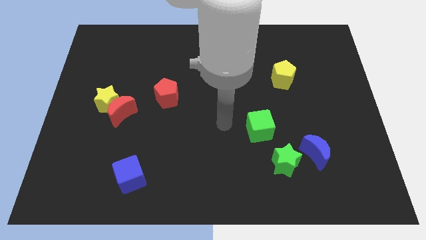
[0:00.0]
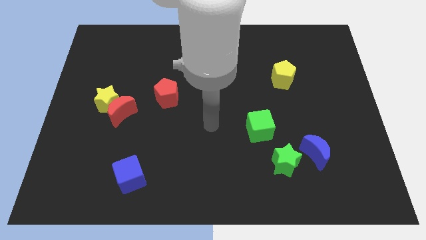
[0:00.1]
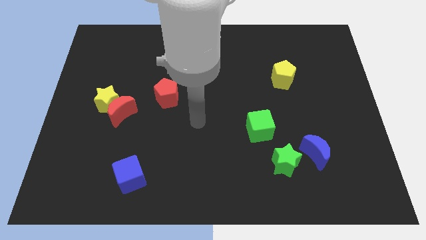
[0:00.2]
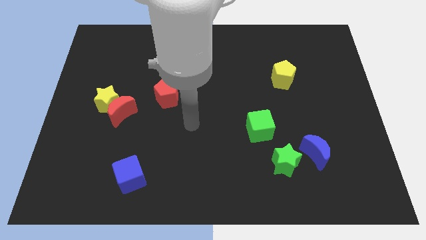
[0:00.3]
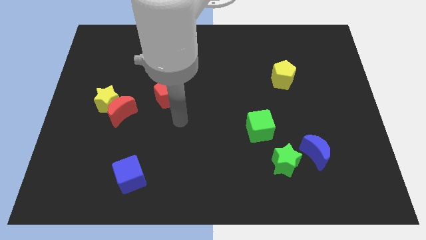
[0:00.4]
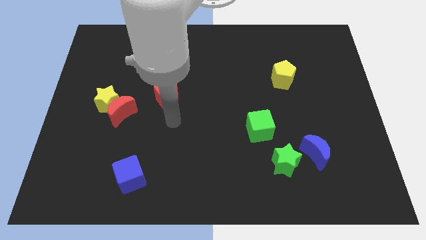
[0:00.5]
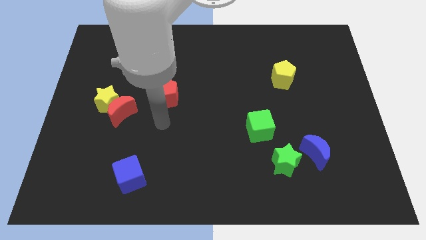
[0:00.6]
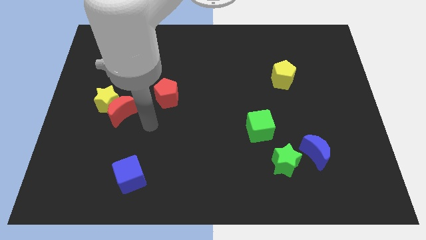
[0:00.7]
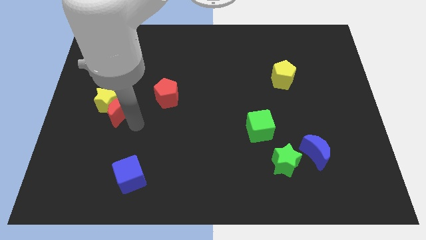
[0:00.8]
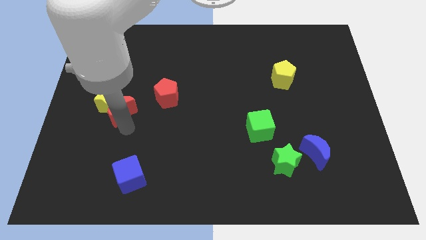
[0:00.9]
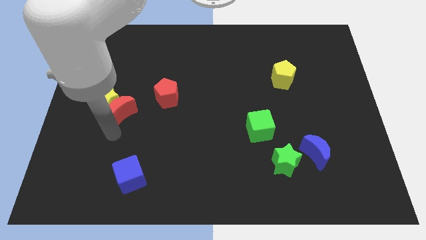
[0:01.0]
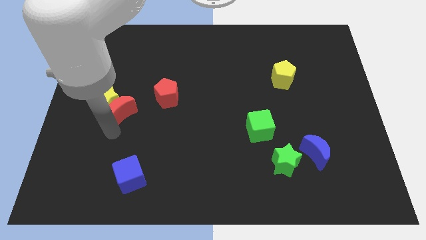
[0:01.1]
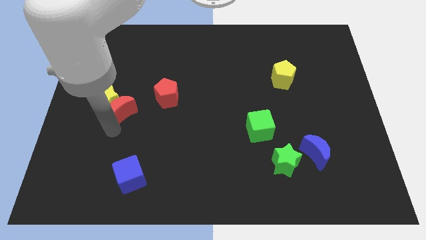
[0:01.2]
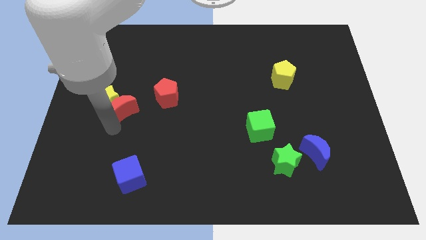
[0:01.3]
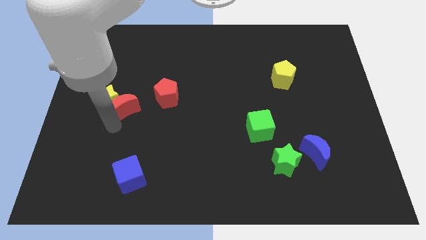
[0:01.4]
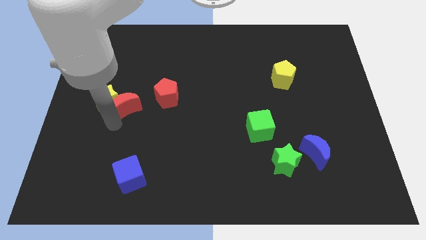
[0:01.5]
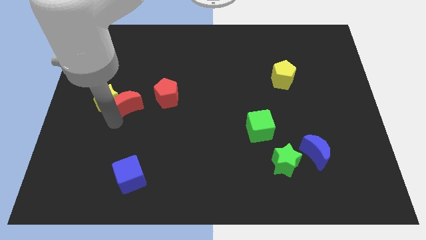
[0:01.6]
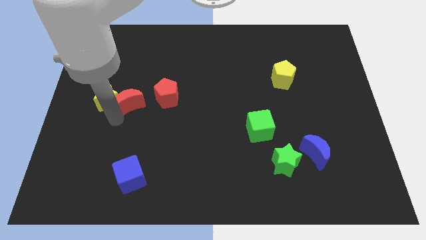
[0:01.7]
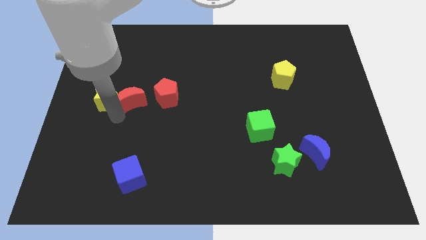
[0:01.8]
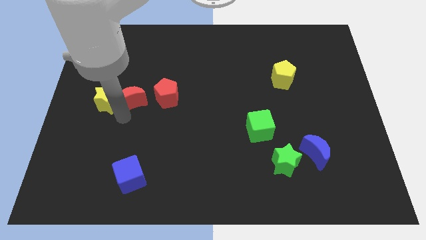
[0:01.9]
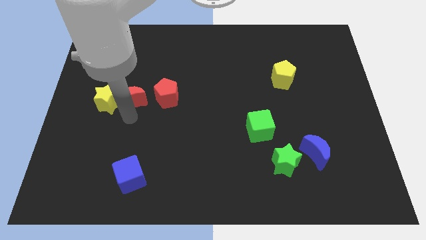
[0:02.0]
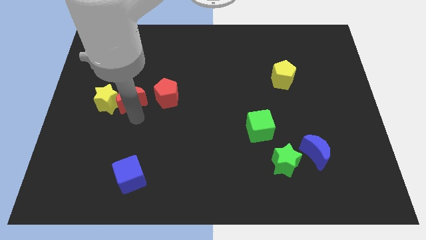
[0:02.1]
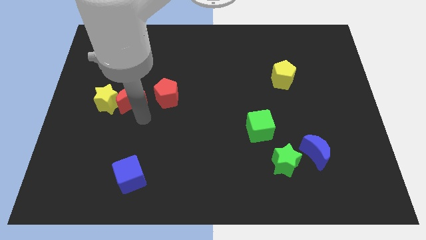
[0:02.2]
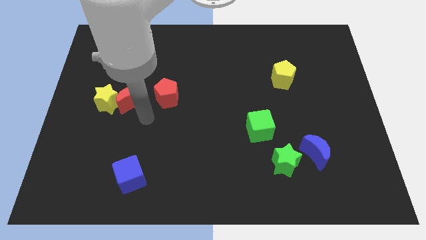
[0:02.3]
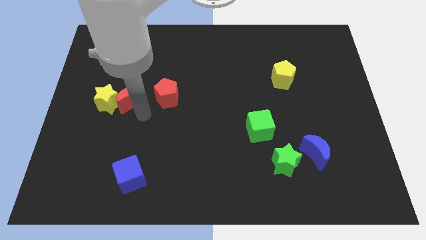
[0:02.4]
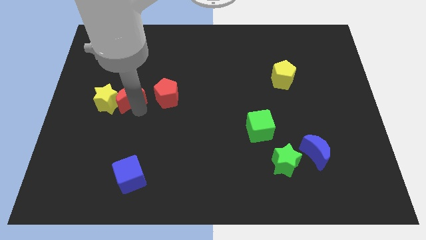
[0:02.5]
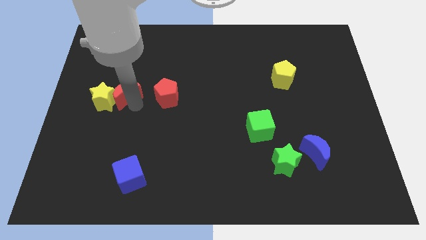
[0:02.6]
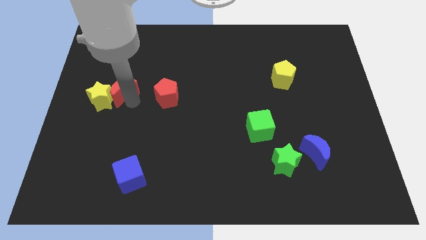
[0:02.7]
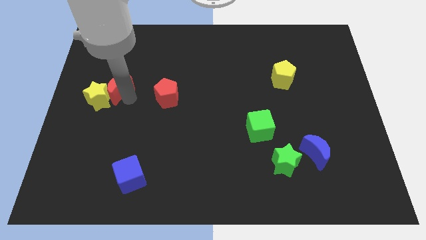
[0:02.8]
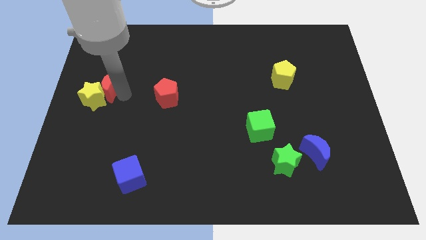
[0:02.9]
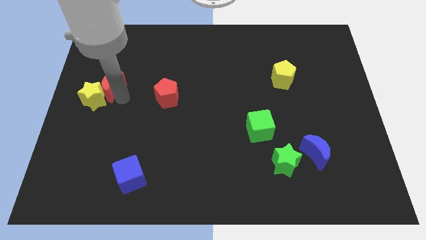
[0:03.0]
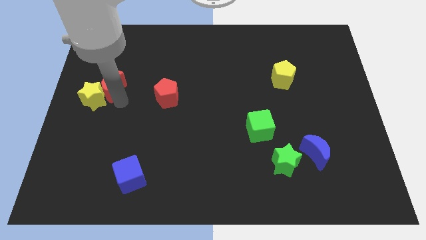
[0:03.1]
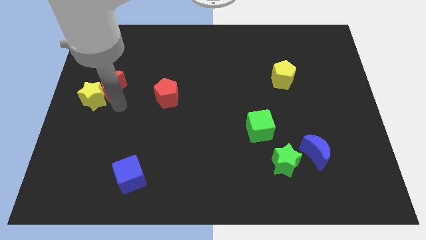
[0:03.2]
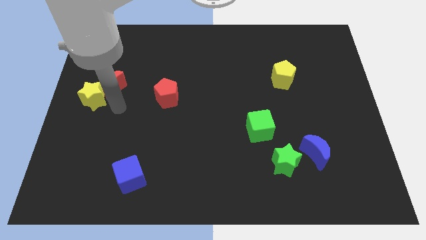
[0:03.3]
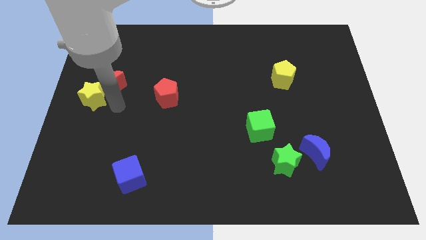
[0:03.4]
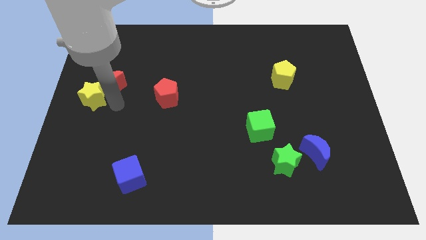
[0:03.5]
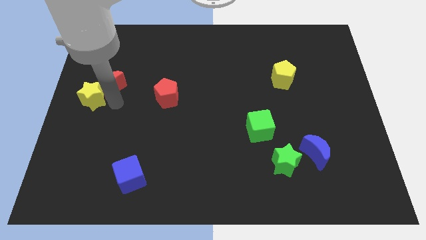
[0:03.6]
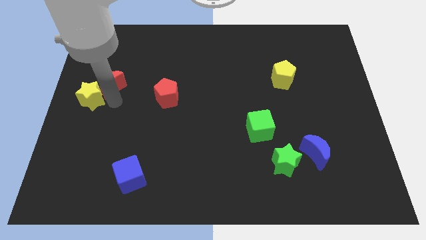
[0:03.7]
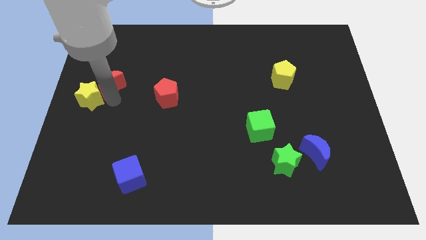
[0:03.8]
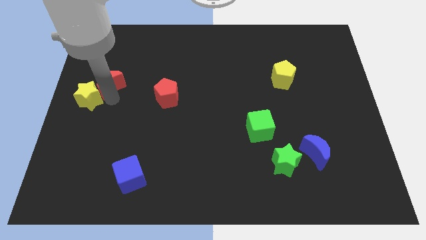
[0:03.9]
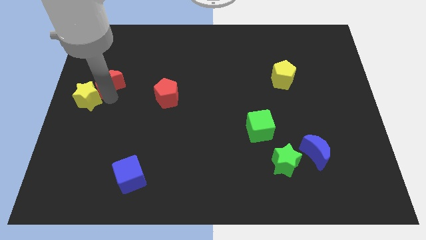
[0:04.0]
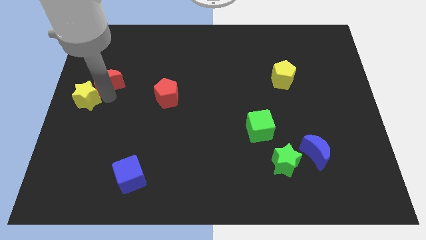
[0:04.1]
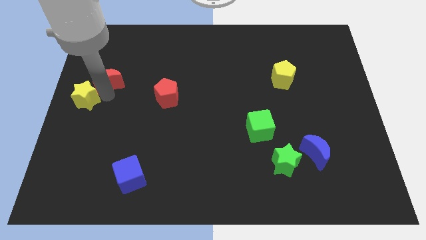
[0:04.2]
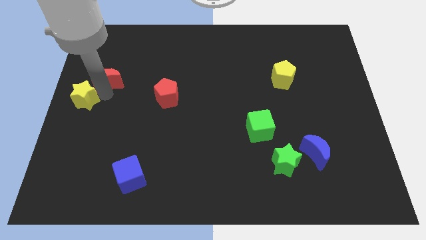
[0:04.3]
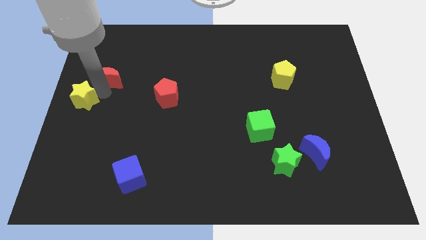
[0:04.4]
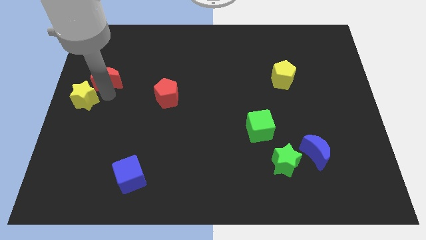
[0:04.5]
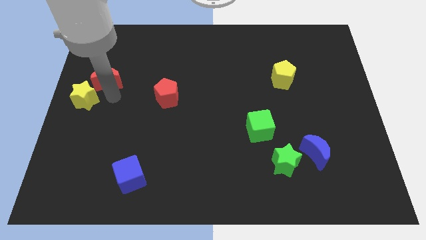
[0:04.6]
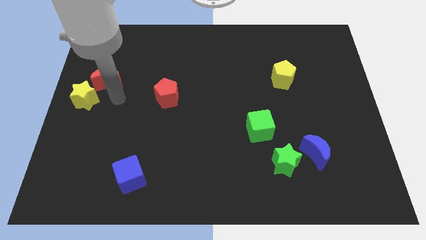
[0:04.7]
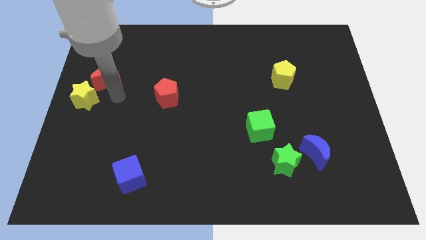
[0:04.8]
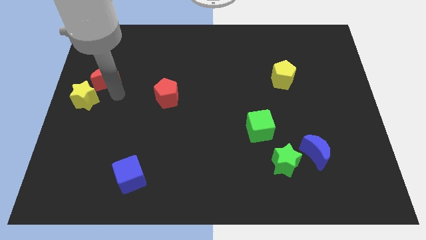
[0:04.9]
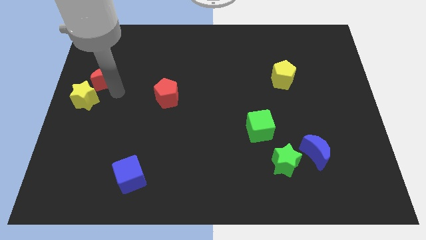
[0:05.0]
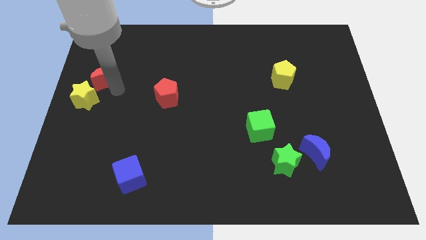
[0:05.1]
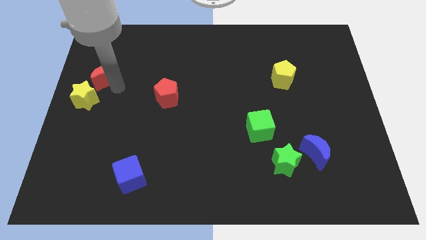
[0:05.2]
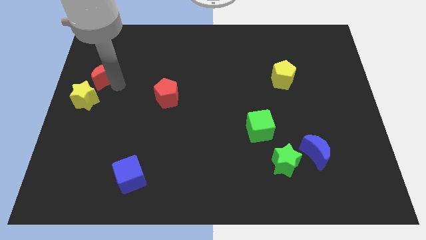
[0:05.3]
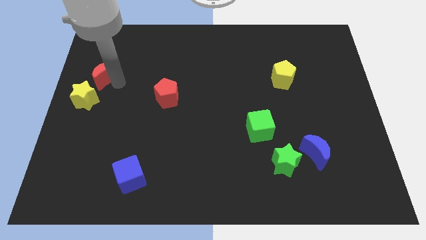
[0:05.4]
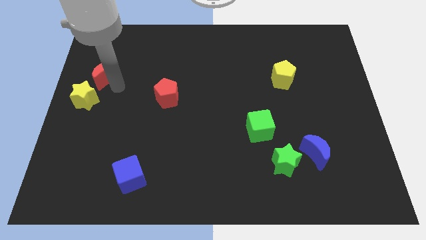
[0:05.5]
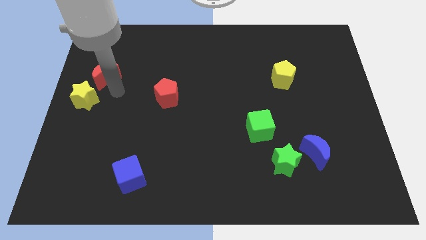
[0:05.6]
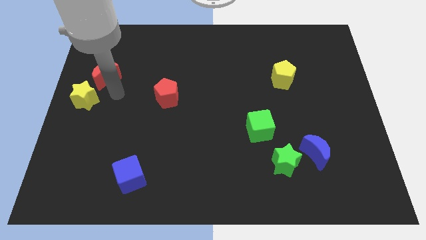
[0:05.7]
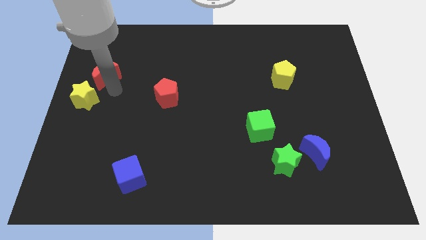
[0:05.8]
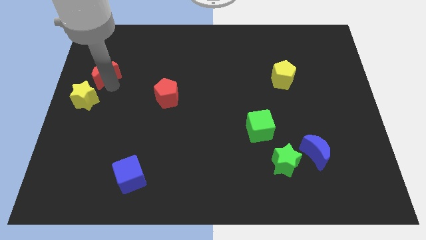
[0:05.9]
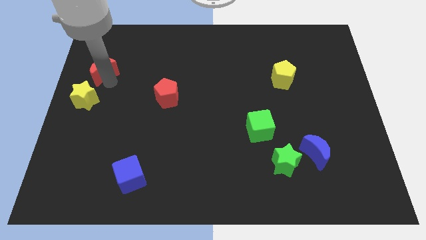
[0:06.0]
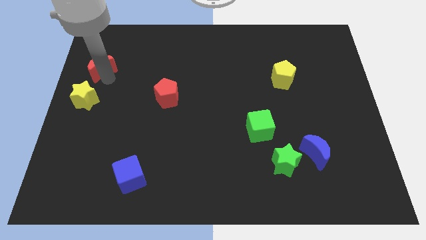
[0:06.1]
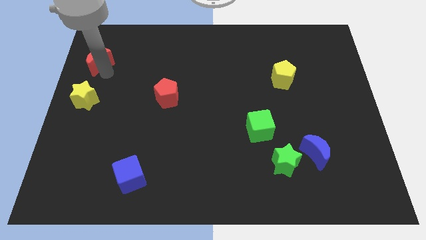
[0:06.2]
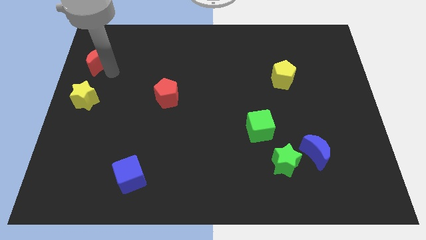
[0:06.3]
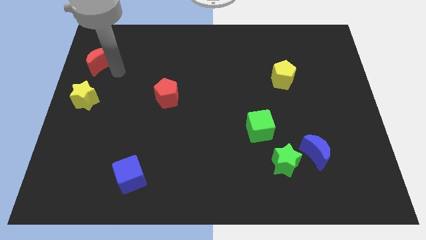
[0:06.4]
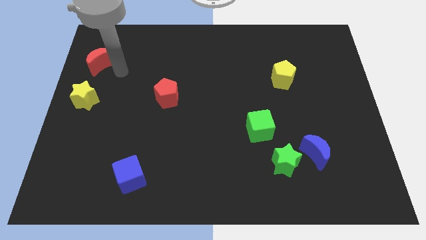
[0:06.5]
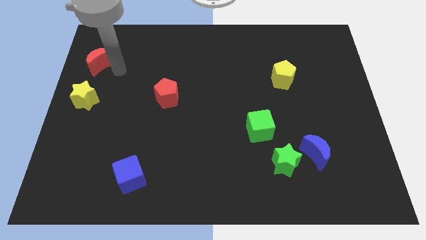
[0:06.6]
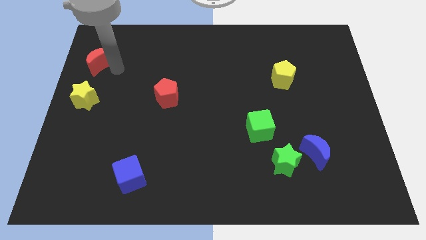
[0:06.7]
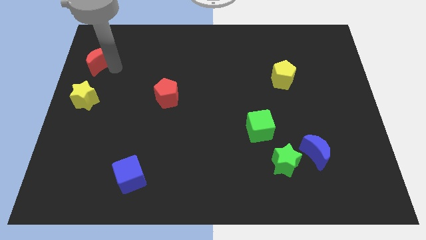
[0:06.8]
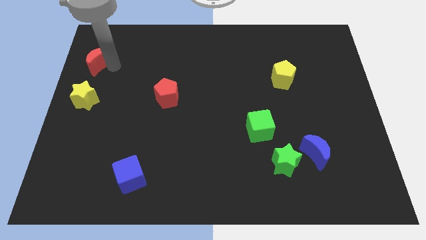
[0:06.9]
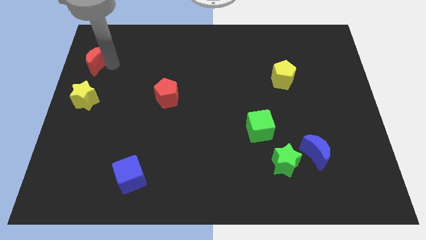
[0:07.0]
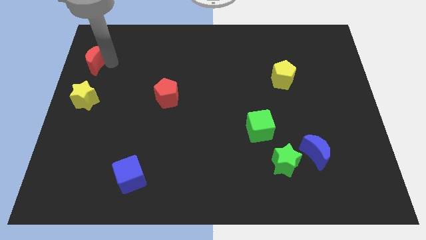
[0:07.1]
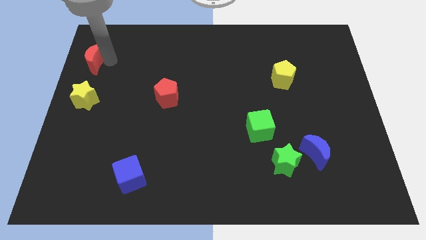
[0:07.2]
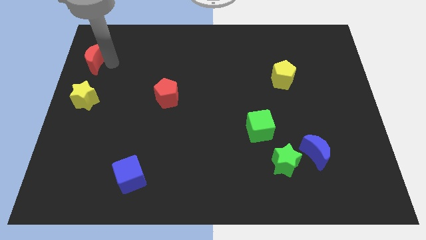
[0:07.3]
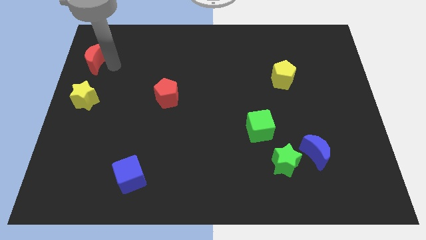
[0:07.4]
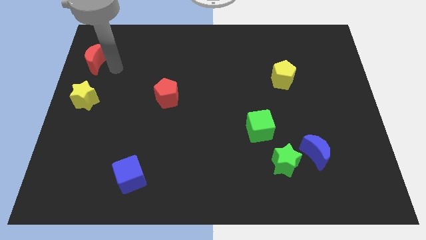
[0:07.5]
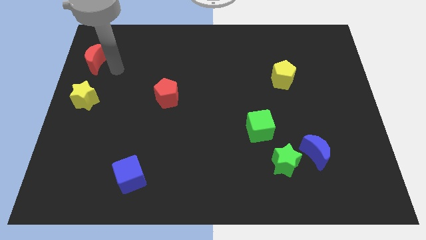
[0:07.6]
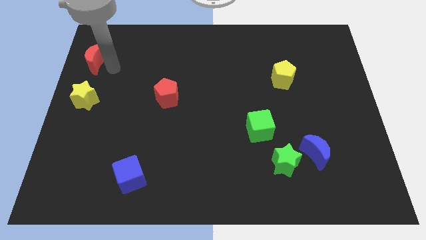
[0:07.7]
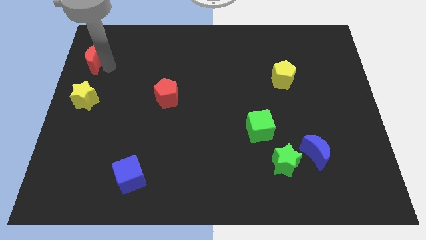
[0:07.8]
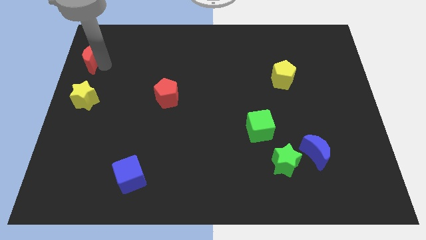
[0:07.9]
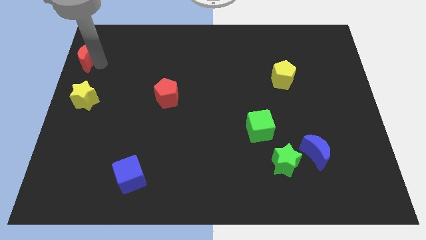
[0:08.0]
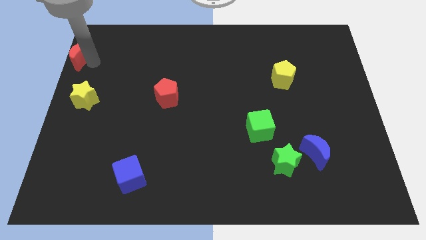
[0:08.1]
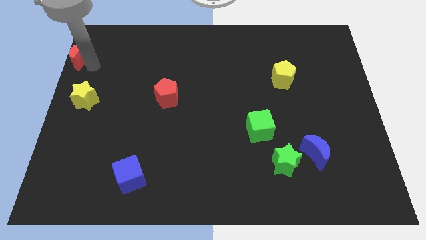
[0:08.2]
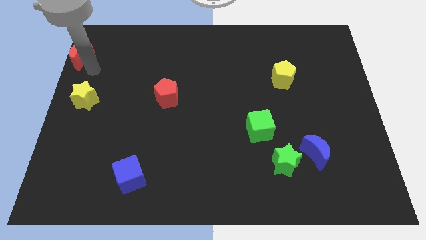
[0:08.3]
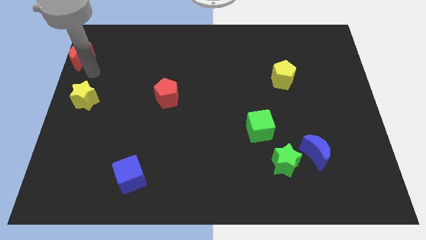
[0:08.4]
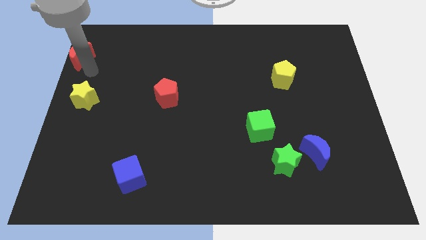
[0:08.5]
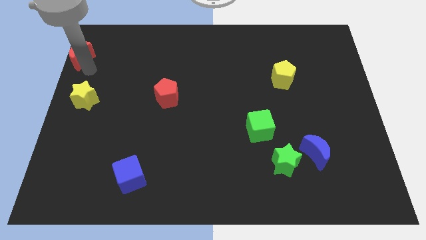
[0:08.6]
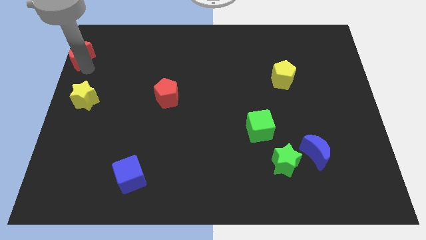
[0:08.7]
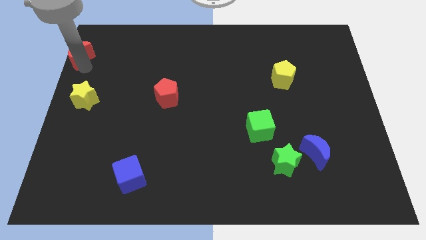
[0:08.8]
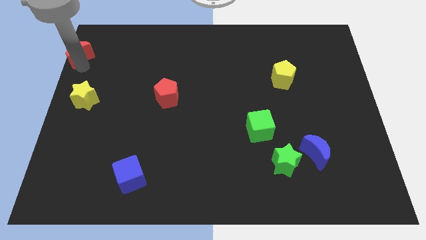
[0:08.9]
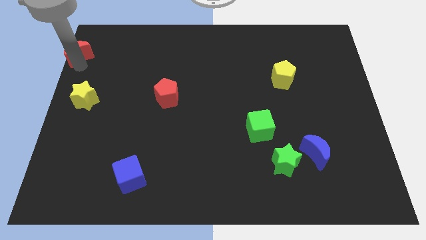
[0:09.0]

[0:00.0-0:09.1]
move the red moon to the top left corner
